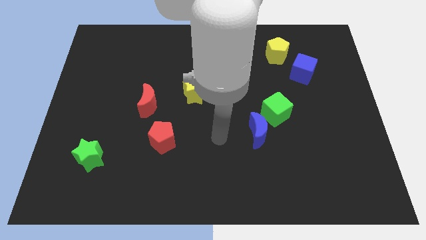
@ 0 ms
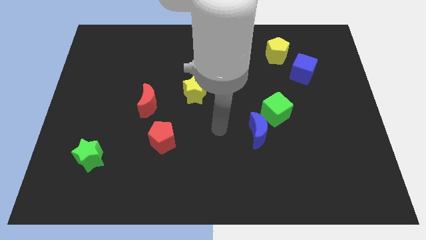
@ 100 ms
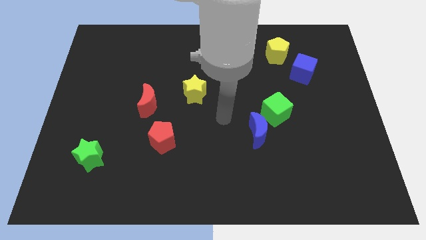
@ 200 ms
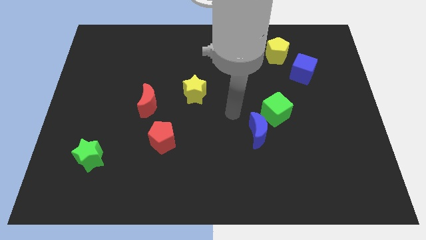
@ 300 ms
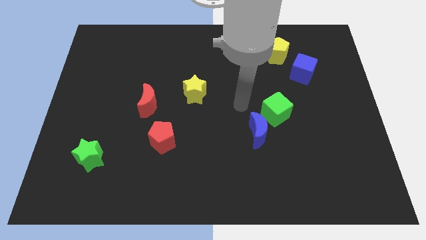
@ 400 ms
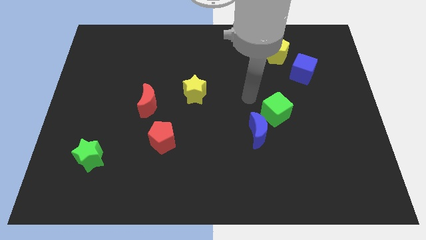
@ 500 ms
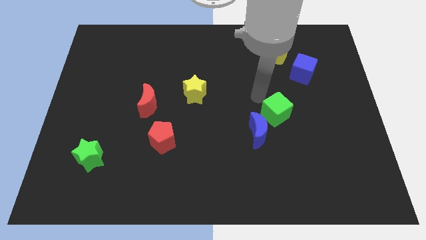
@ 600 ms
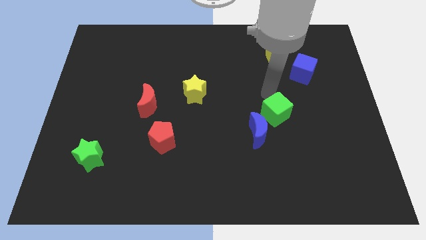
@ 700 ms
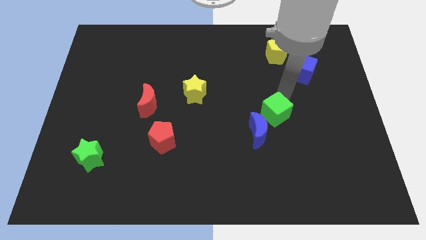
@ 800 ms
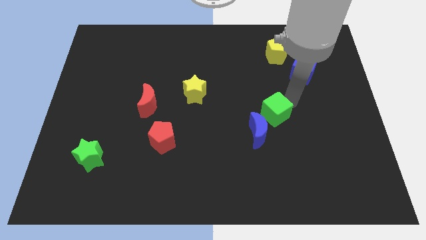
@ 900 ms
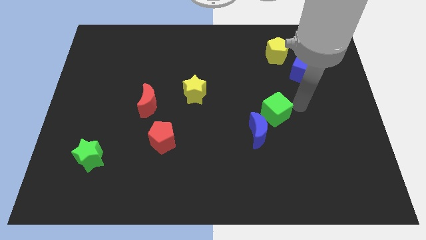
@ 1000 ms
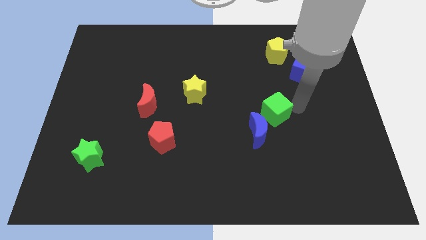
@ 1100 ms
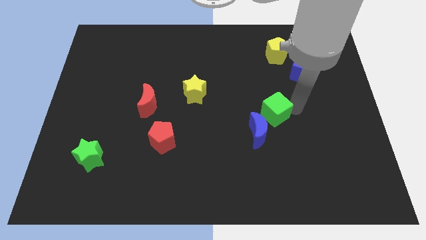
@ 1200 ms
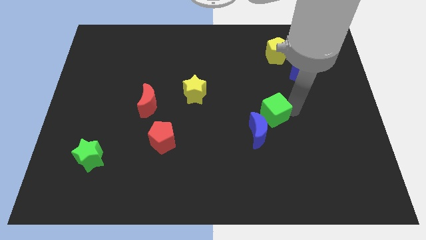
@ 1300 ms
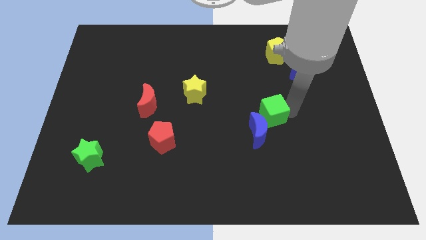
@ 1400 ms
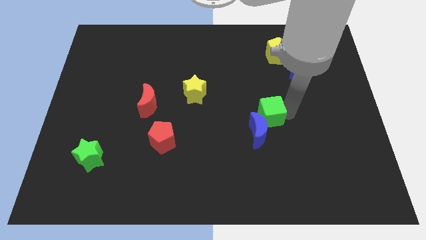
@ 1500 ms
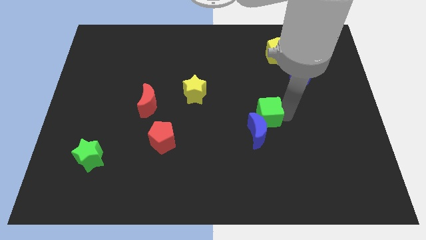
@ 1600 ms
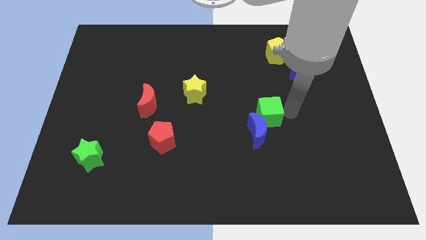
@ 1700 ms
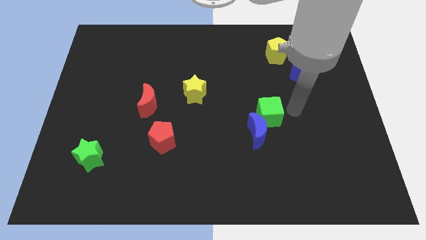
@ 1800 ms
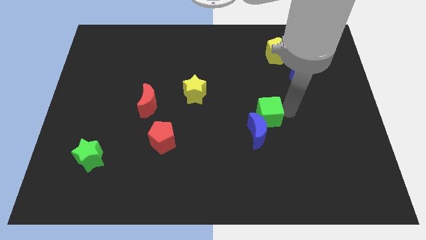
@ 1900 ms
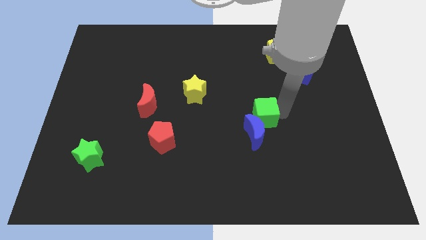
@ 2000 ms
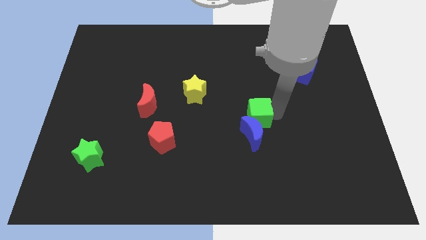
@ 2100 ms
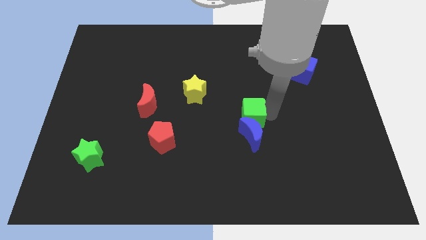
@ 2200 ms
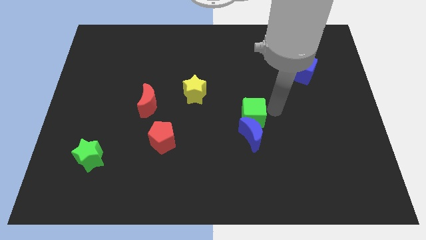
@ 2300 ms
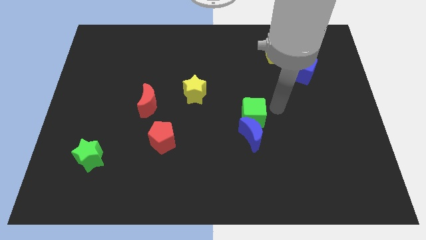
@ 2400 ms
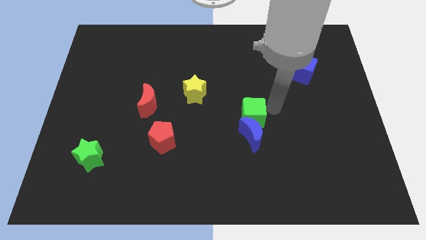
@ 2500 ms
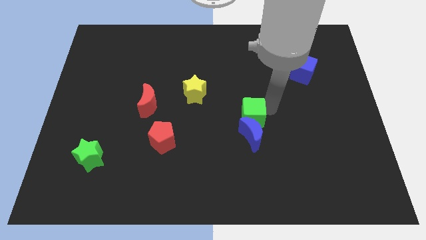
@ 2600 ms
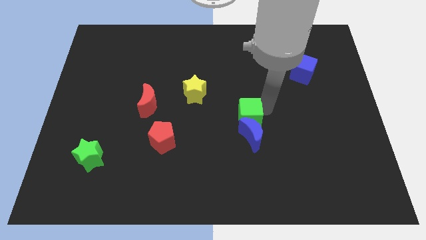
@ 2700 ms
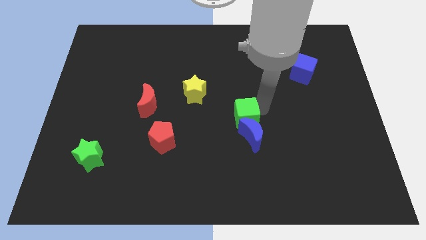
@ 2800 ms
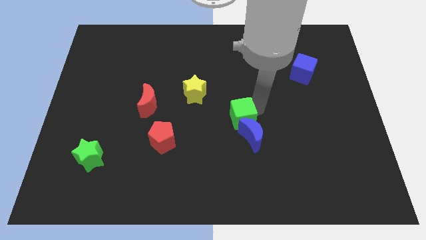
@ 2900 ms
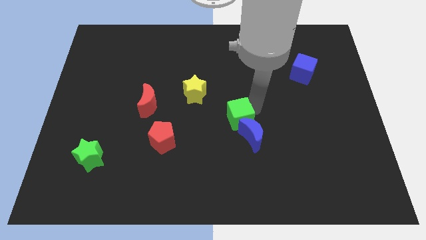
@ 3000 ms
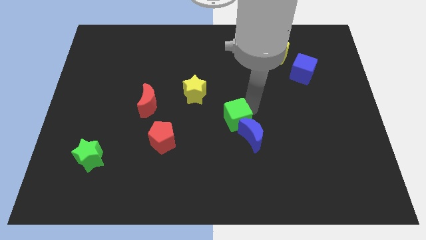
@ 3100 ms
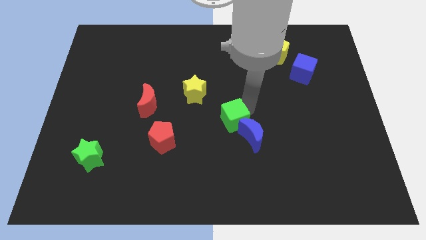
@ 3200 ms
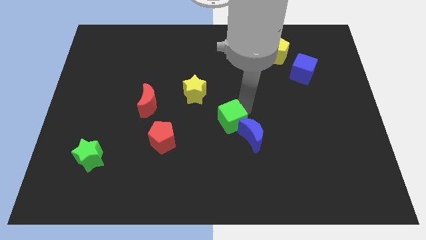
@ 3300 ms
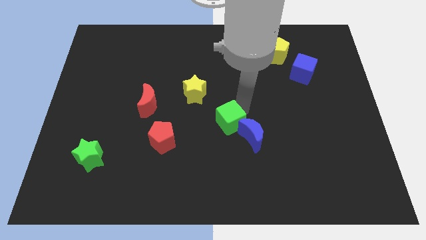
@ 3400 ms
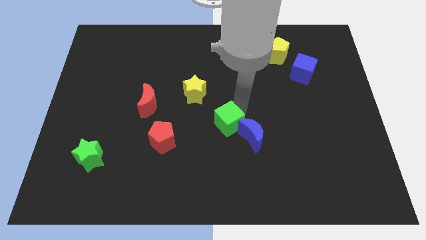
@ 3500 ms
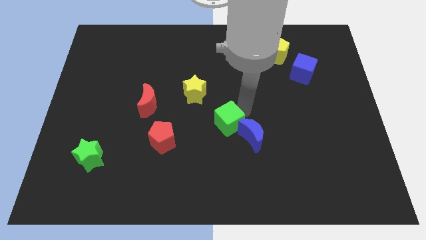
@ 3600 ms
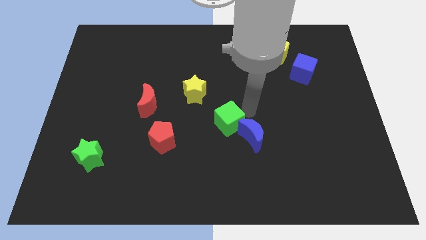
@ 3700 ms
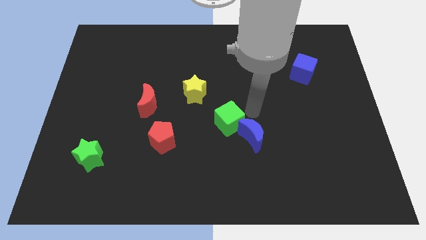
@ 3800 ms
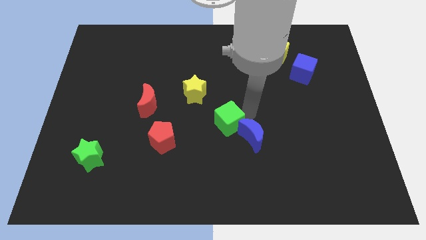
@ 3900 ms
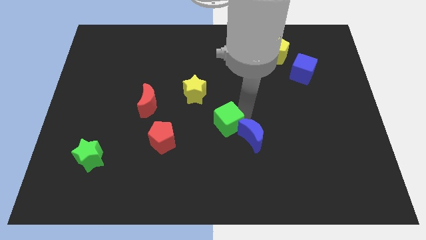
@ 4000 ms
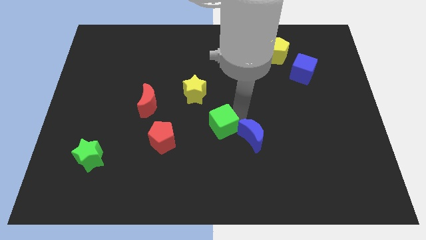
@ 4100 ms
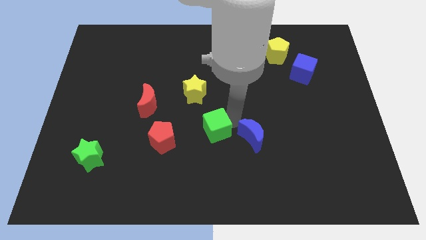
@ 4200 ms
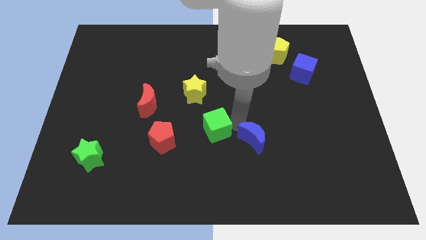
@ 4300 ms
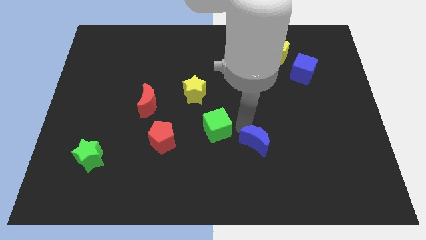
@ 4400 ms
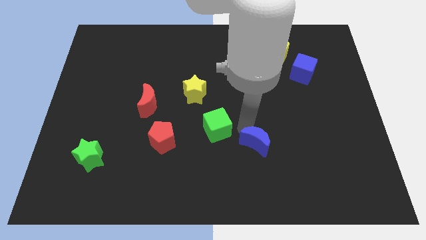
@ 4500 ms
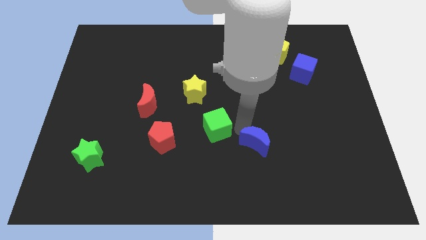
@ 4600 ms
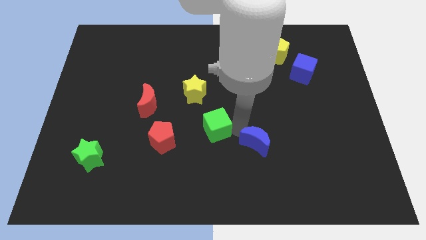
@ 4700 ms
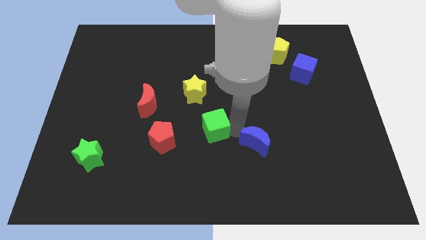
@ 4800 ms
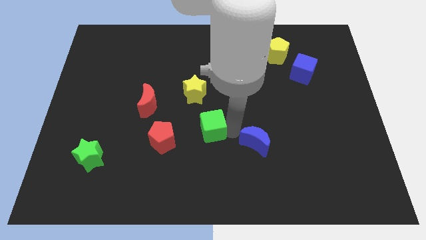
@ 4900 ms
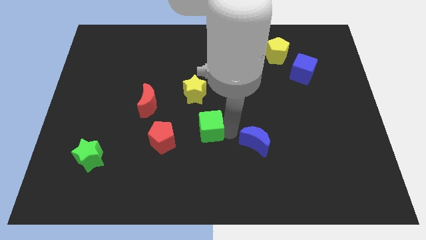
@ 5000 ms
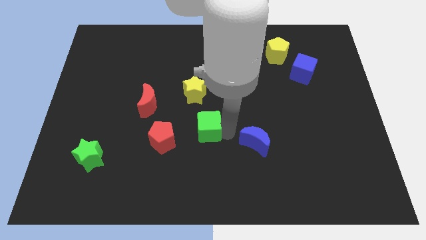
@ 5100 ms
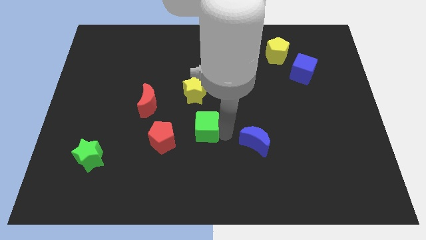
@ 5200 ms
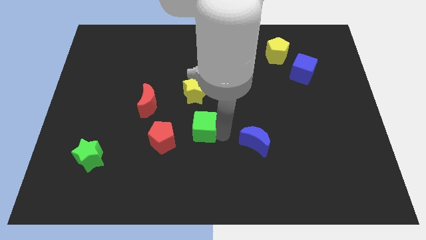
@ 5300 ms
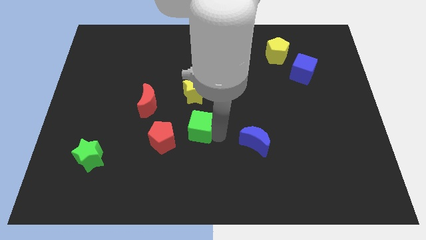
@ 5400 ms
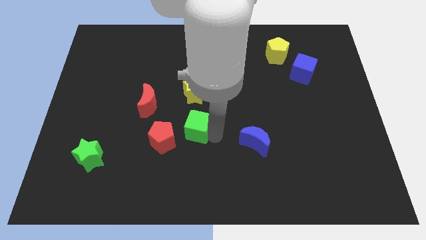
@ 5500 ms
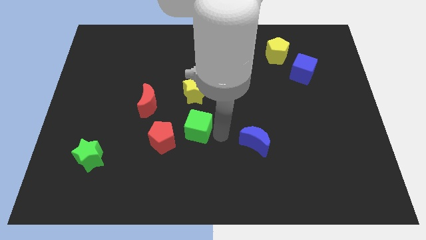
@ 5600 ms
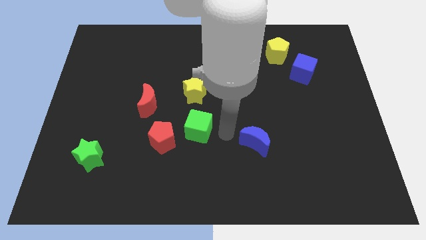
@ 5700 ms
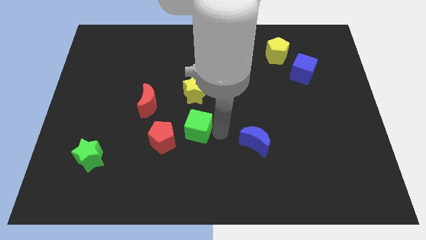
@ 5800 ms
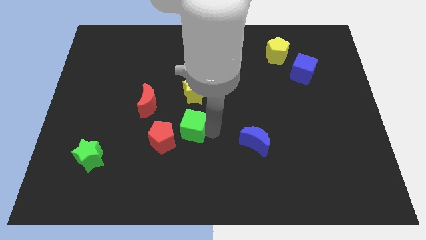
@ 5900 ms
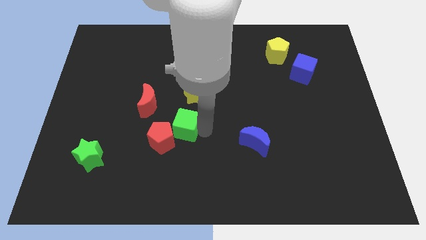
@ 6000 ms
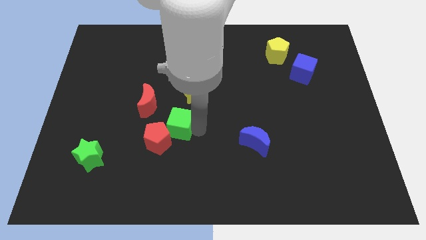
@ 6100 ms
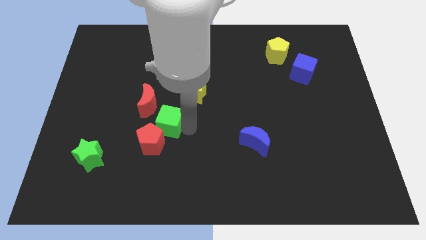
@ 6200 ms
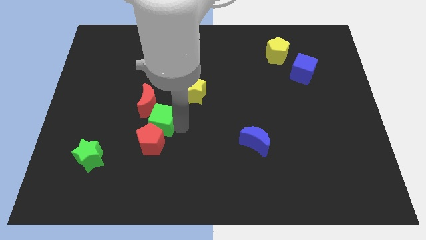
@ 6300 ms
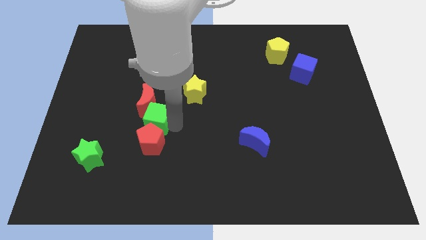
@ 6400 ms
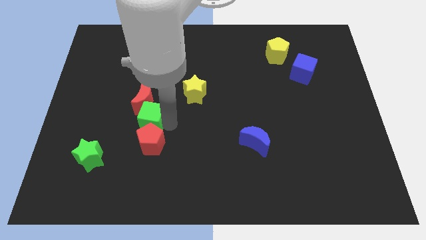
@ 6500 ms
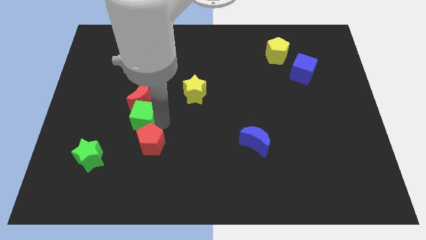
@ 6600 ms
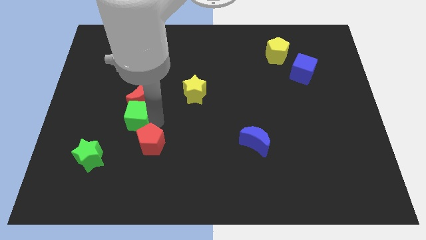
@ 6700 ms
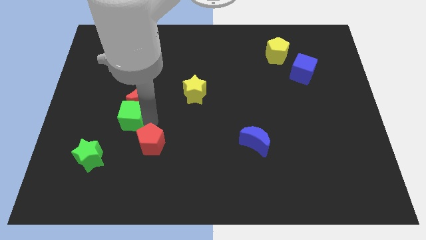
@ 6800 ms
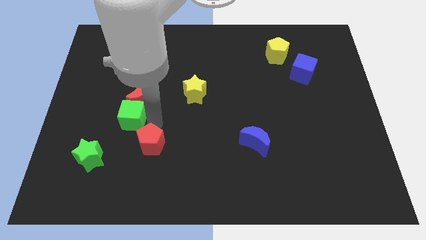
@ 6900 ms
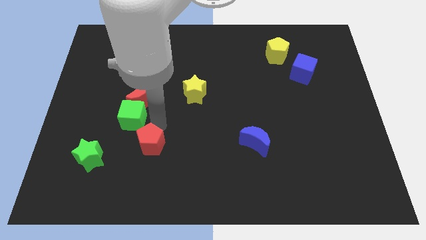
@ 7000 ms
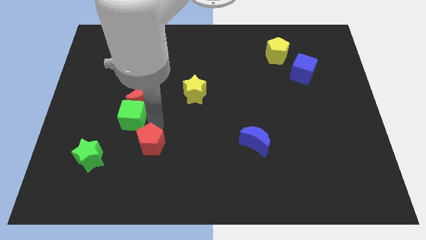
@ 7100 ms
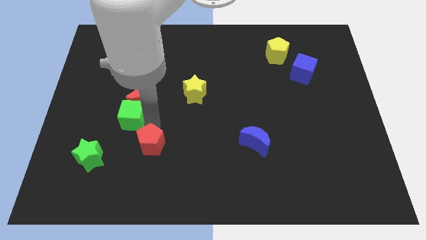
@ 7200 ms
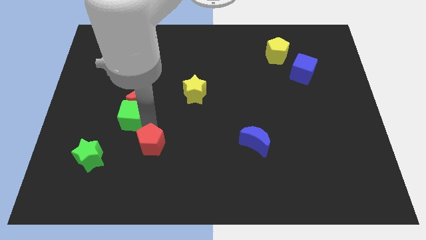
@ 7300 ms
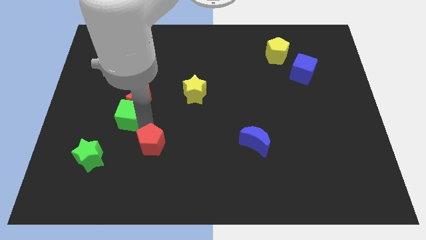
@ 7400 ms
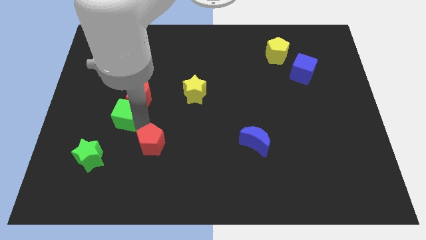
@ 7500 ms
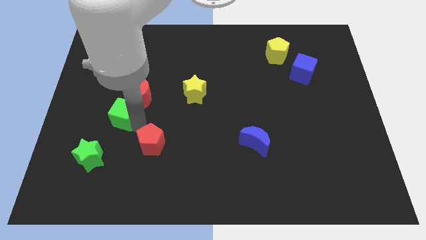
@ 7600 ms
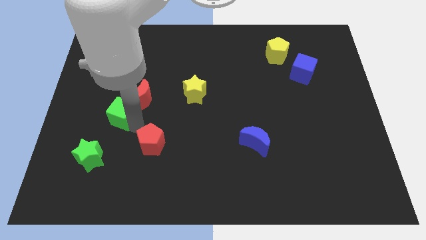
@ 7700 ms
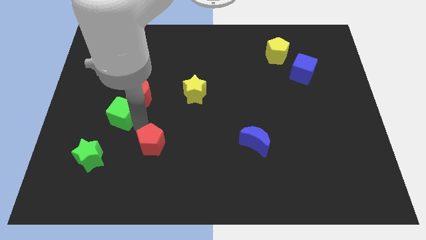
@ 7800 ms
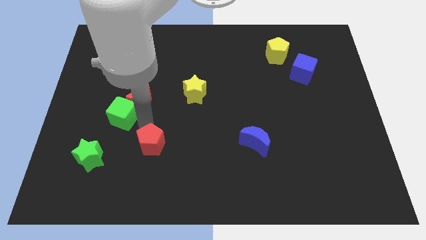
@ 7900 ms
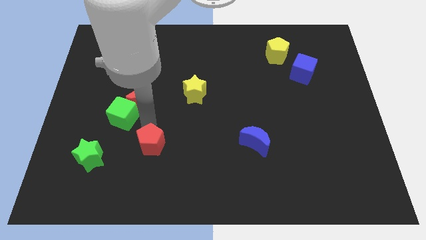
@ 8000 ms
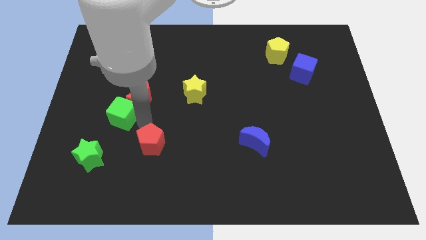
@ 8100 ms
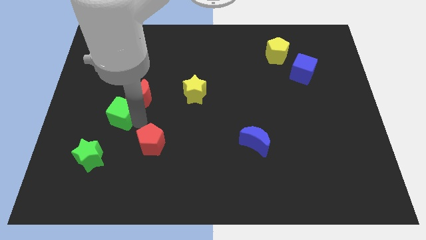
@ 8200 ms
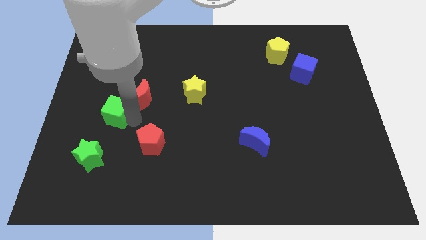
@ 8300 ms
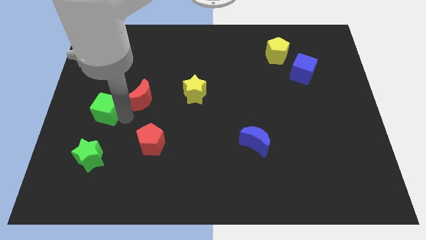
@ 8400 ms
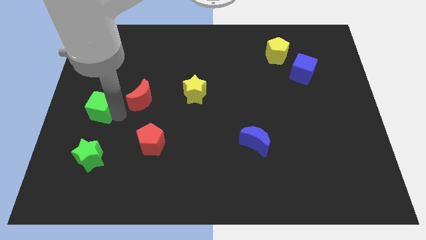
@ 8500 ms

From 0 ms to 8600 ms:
put the green cube to the center left
